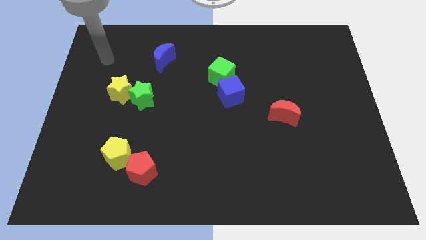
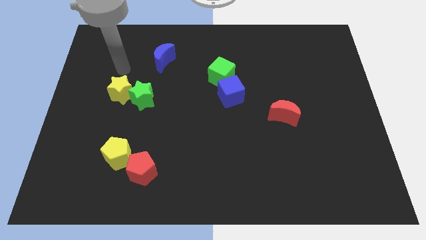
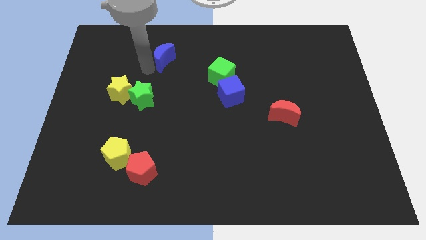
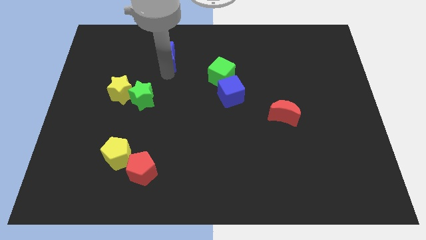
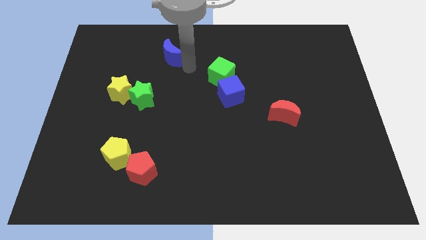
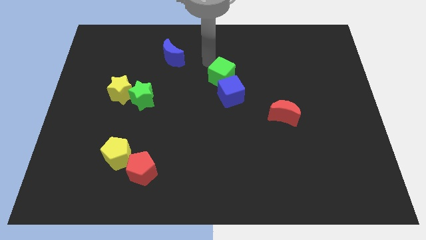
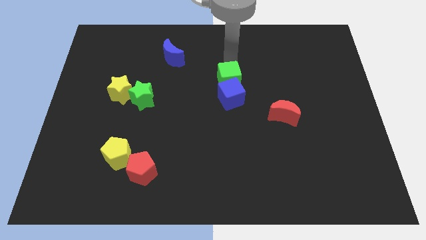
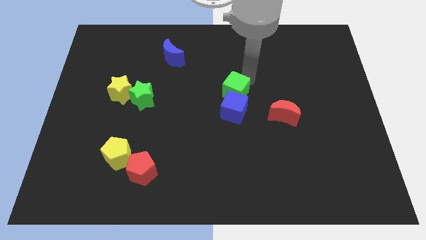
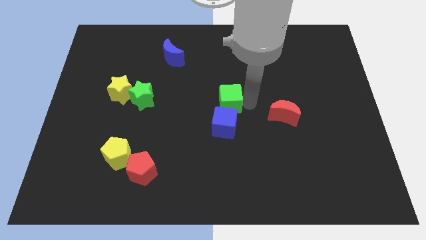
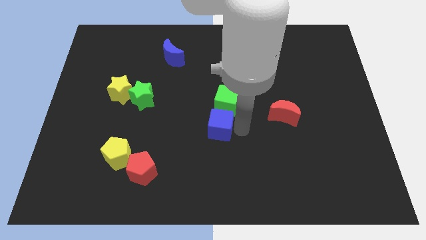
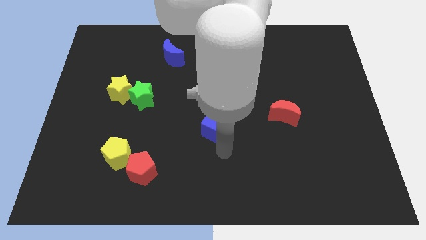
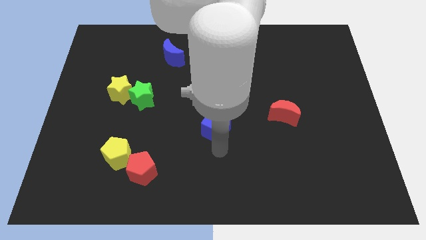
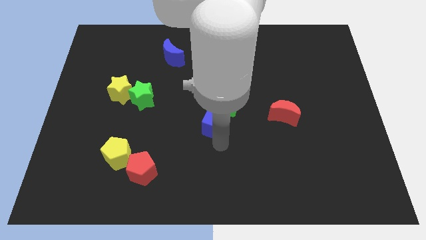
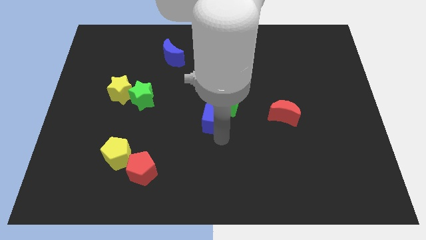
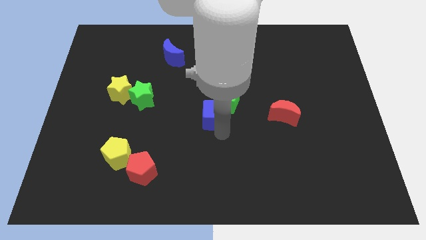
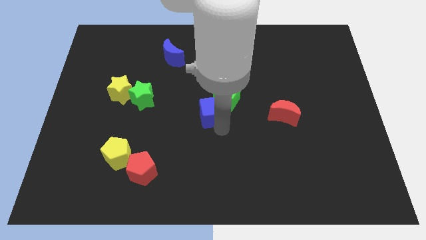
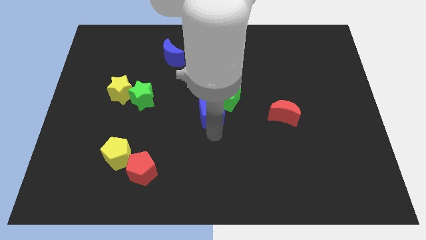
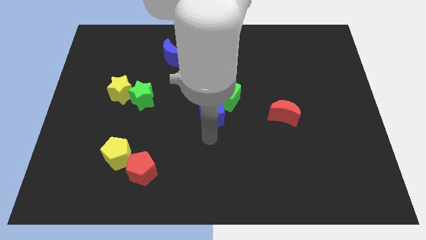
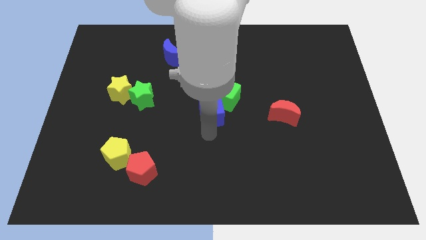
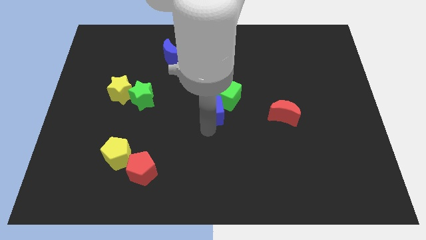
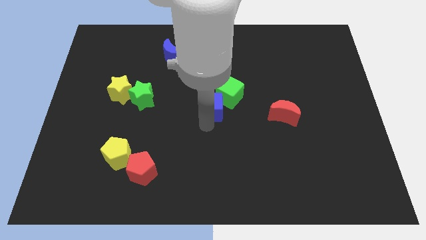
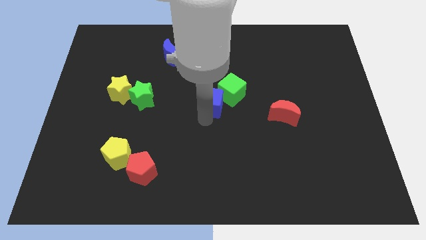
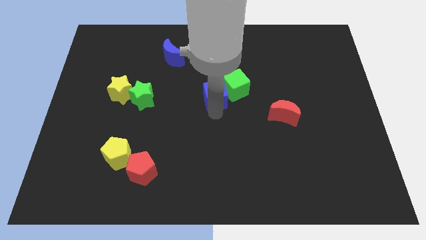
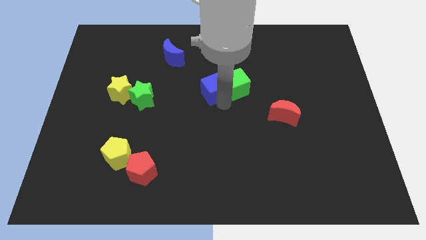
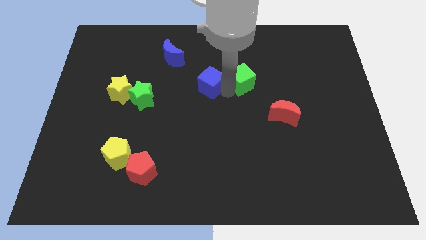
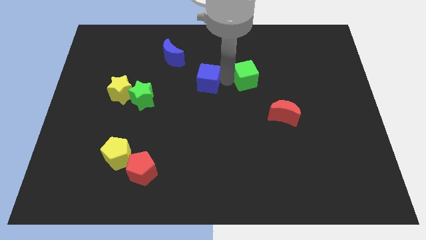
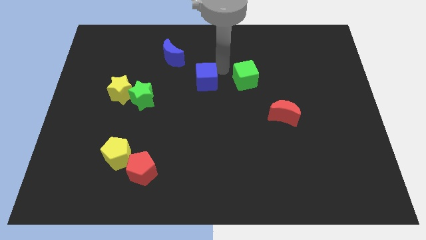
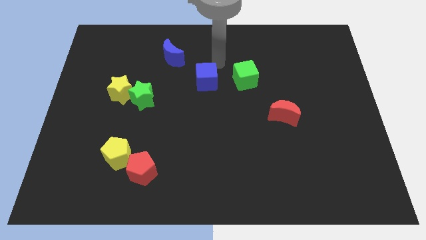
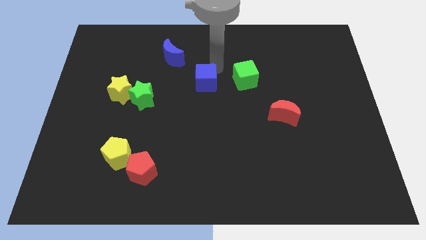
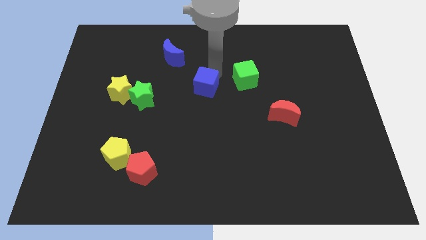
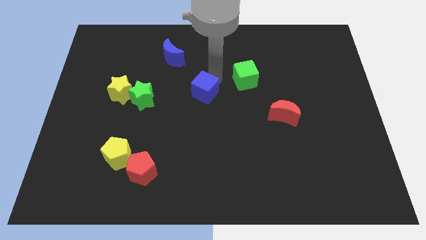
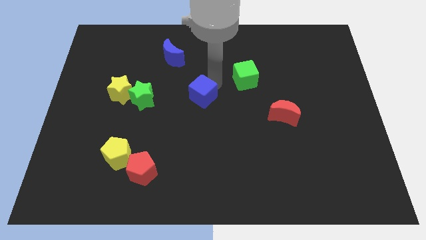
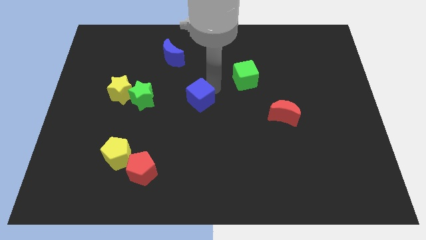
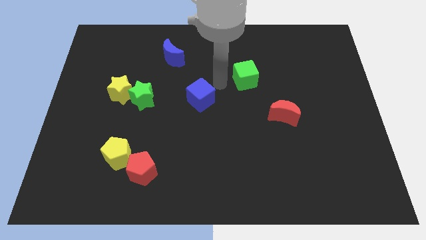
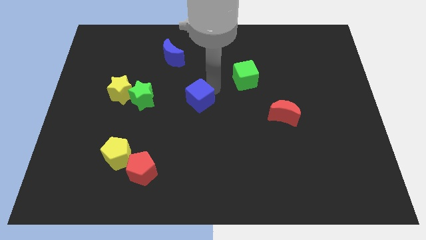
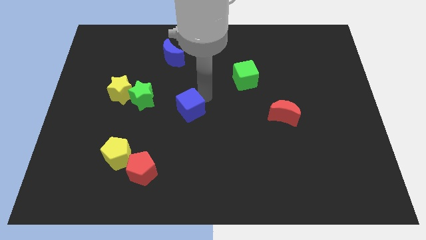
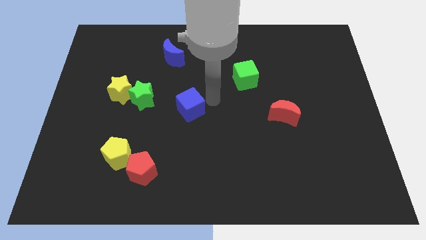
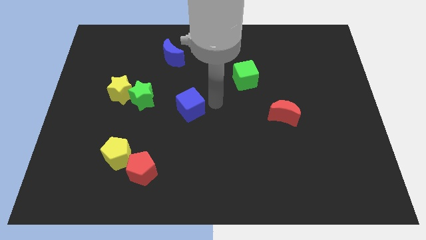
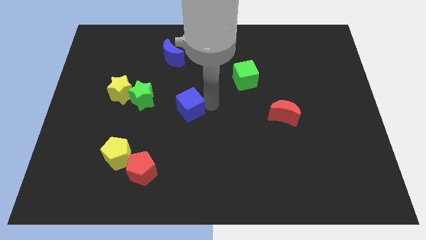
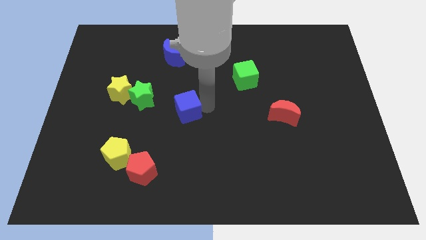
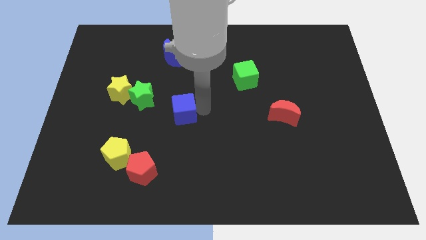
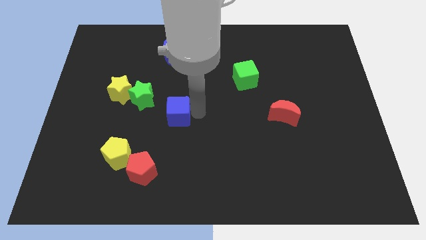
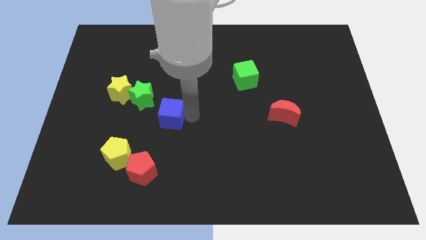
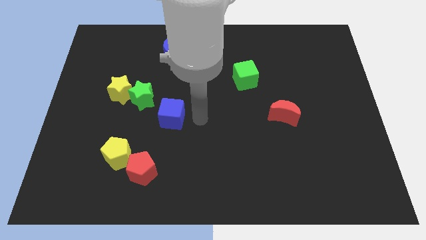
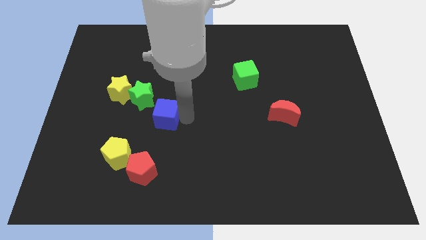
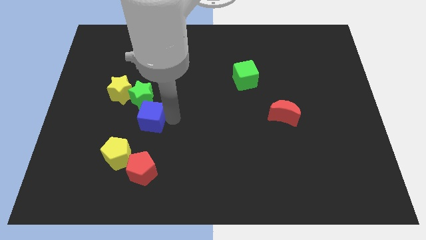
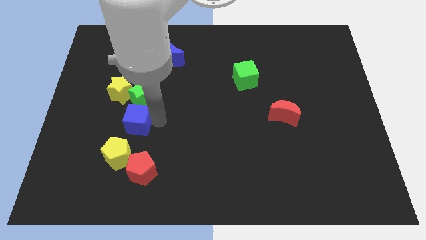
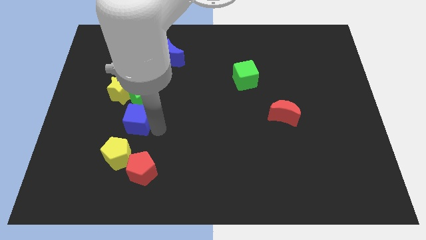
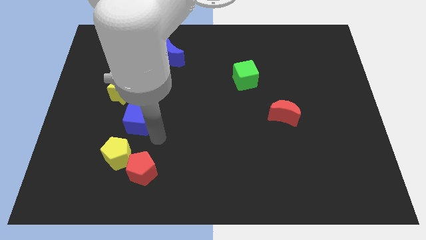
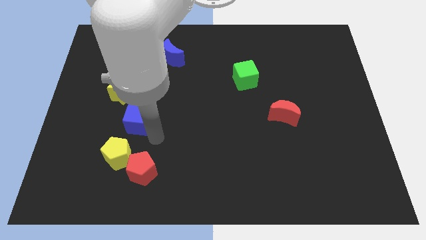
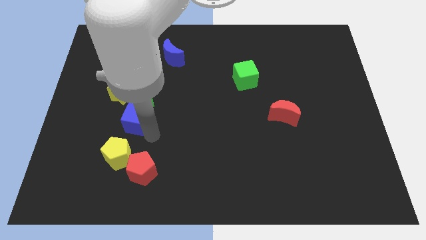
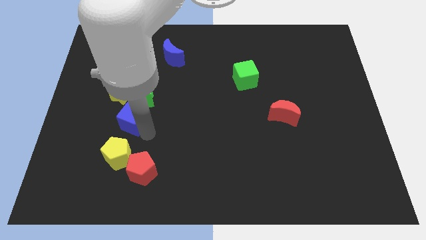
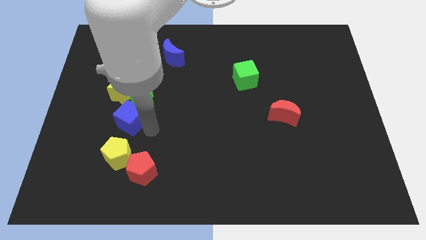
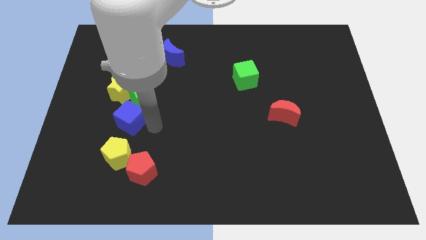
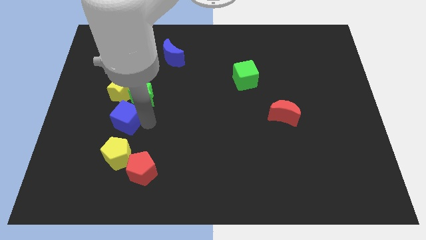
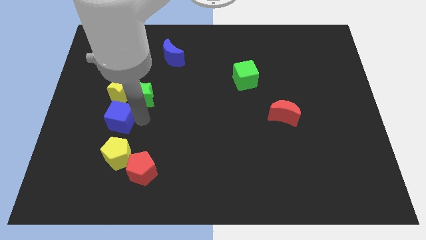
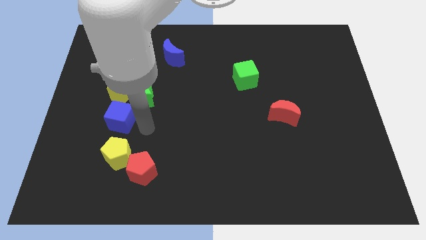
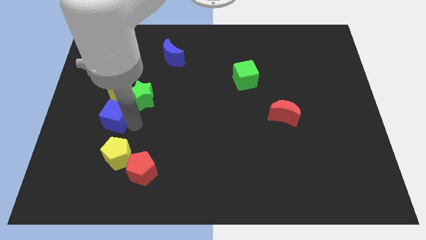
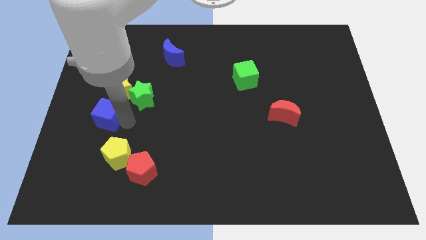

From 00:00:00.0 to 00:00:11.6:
put the blue cube to the bottom left of the yellow star

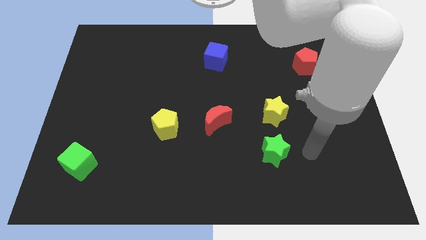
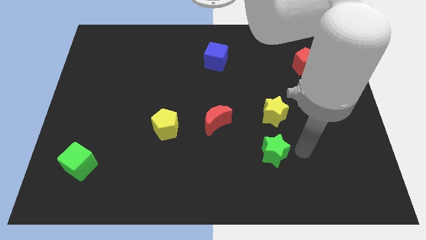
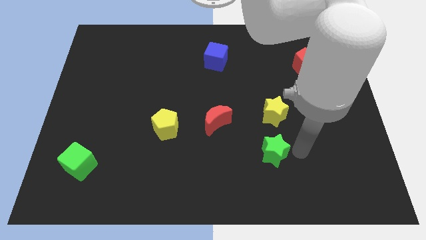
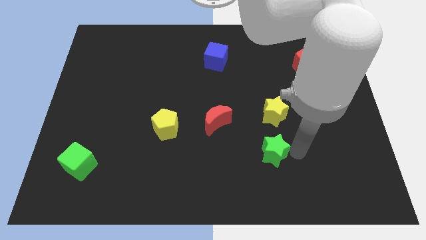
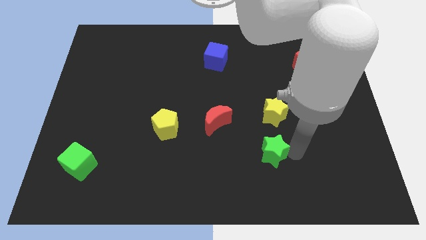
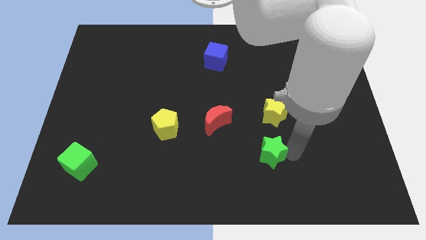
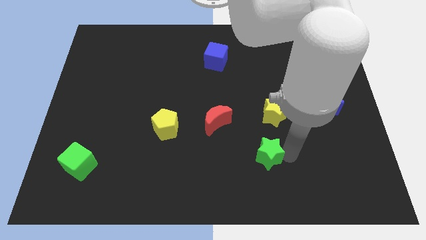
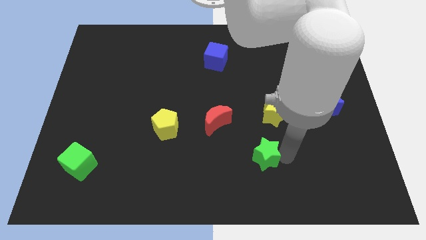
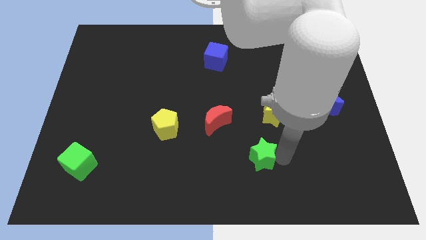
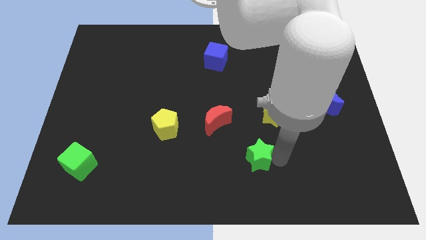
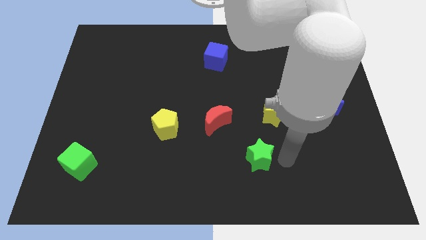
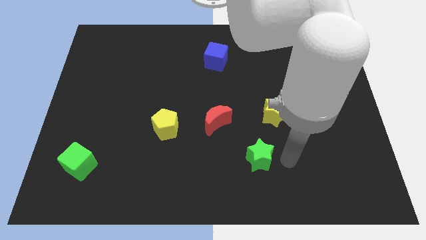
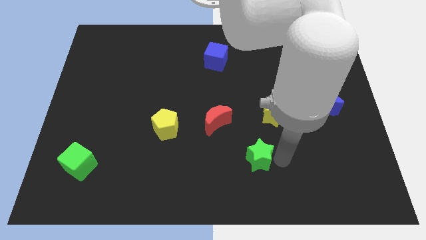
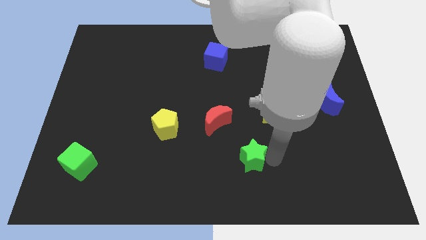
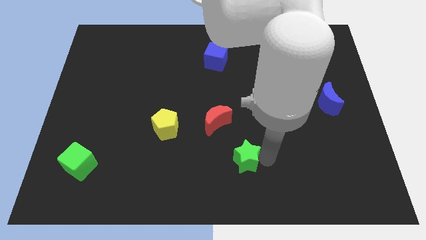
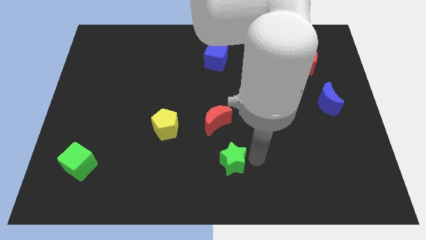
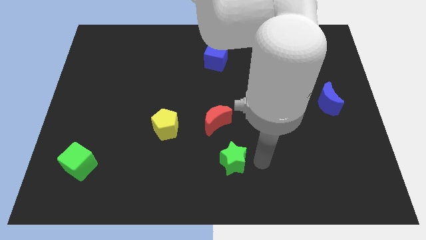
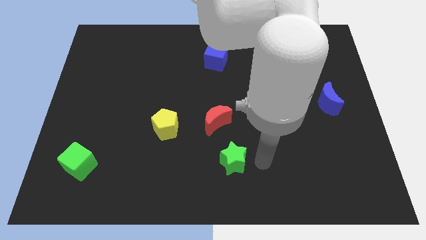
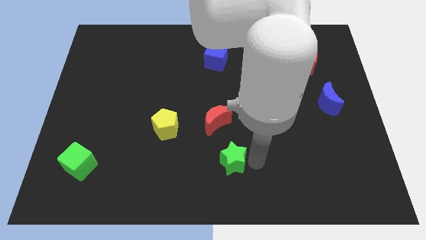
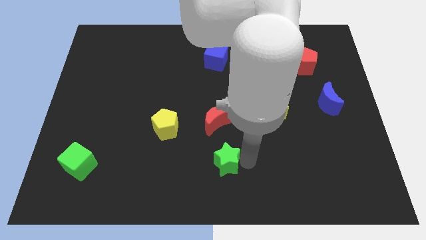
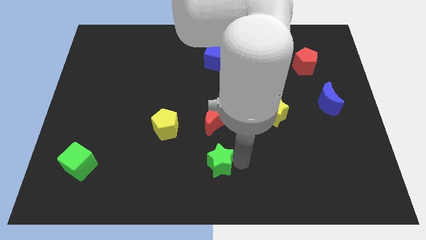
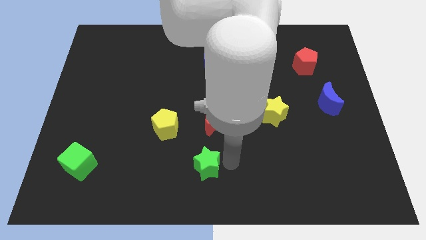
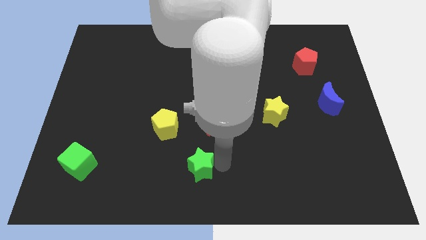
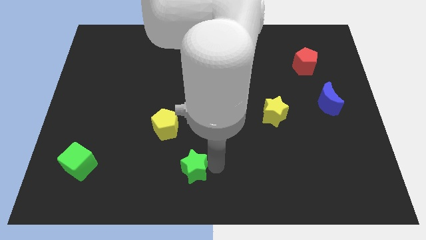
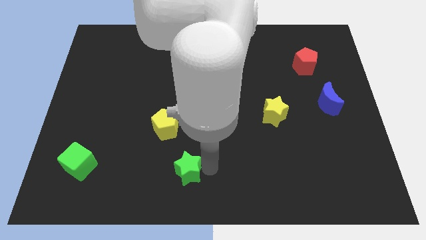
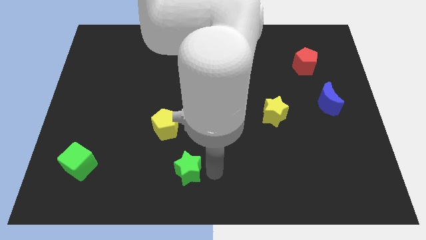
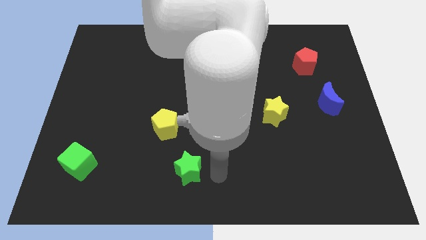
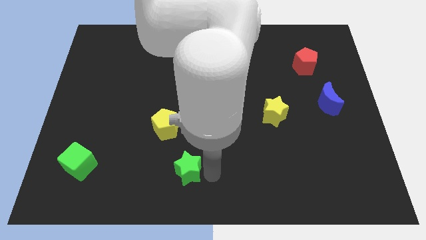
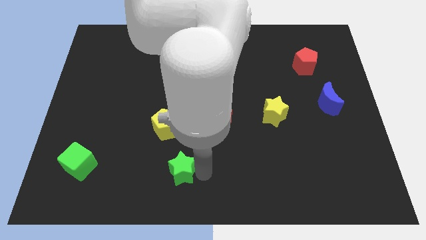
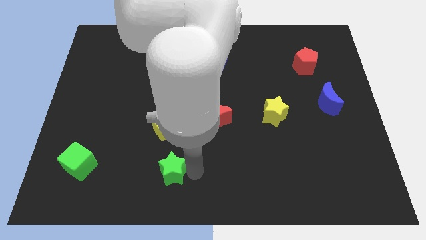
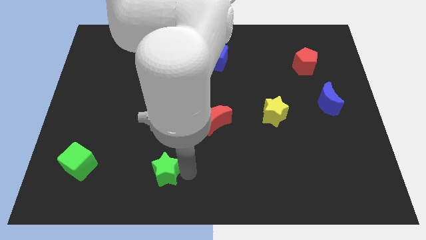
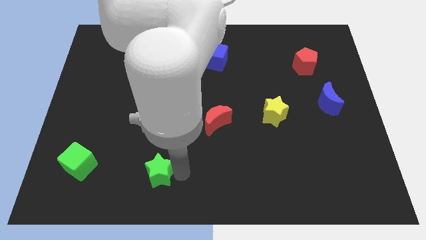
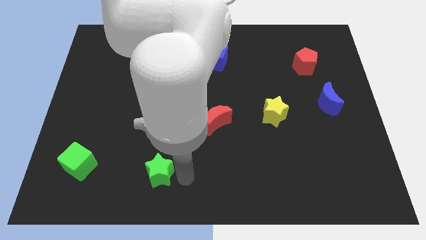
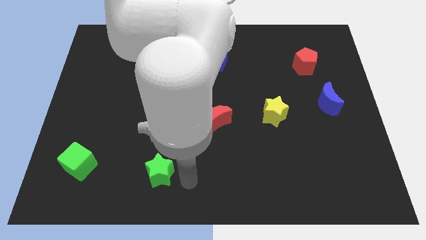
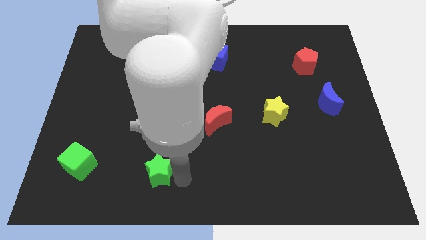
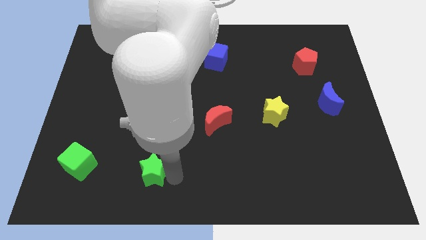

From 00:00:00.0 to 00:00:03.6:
push the green star to the right side of the green cube
